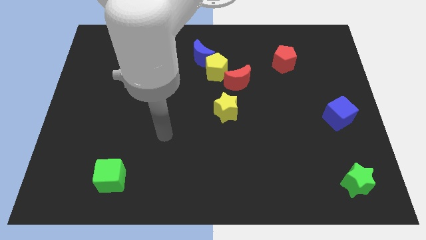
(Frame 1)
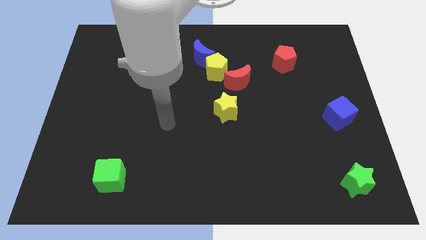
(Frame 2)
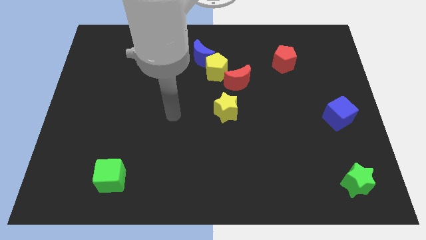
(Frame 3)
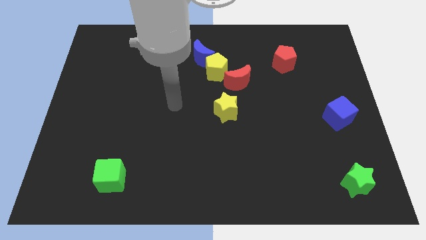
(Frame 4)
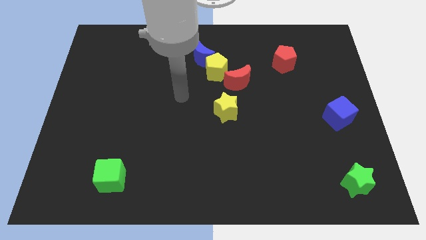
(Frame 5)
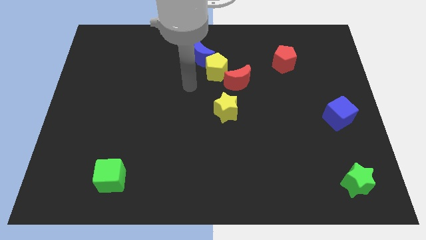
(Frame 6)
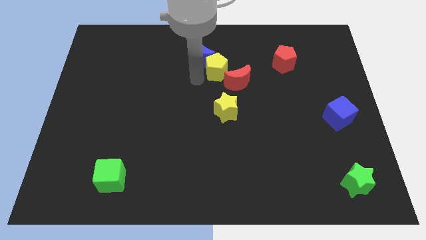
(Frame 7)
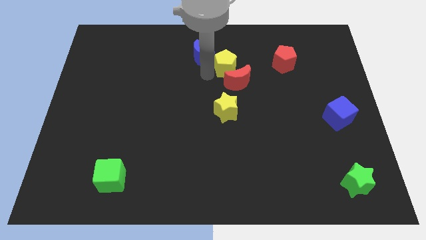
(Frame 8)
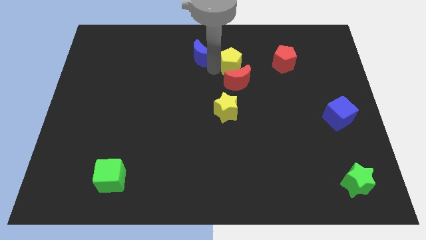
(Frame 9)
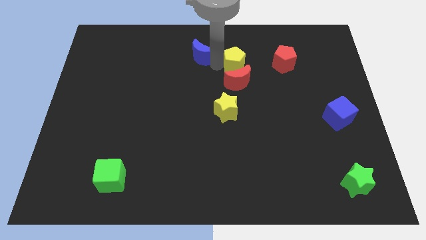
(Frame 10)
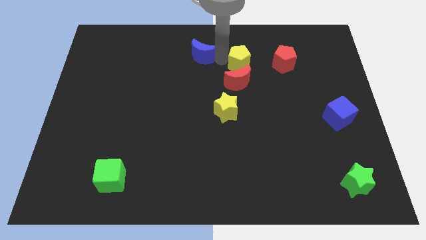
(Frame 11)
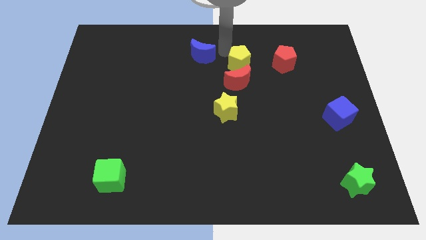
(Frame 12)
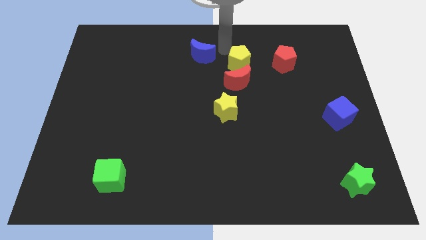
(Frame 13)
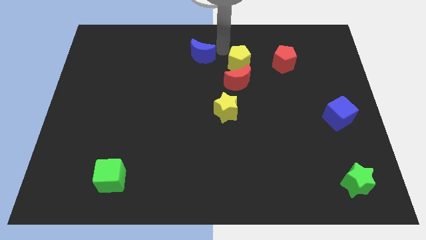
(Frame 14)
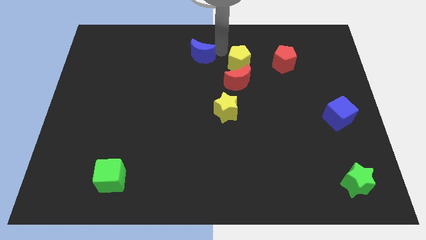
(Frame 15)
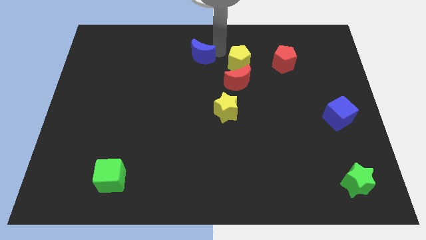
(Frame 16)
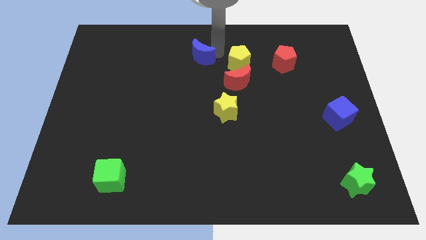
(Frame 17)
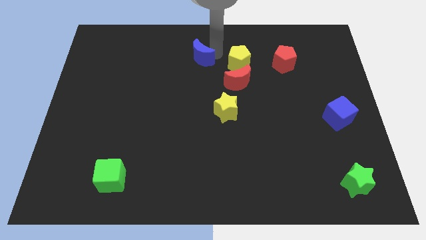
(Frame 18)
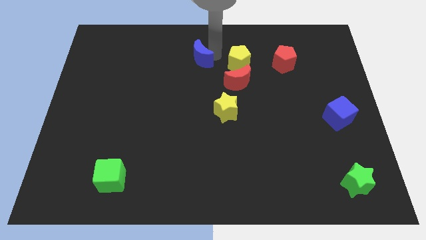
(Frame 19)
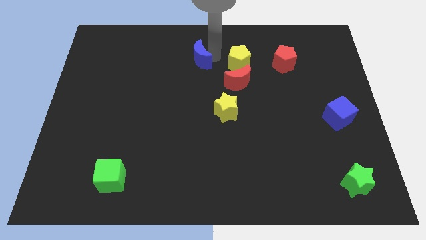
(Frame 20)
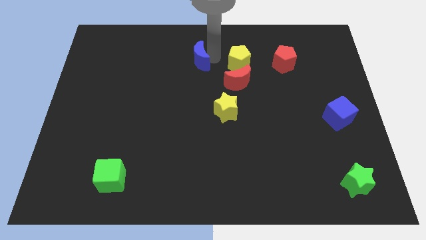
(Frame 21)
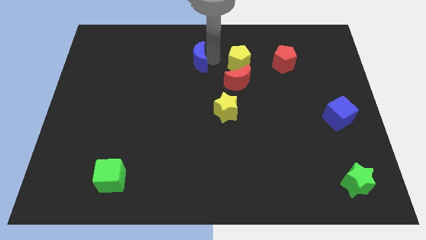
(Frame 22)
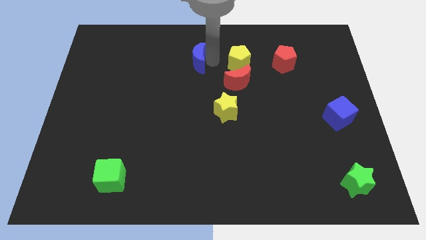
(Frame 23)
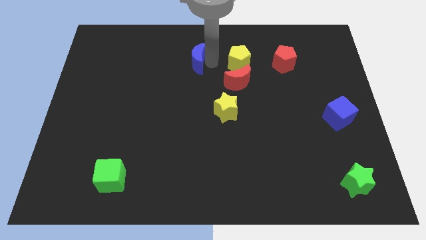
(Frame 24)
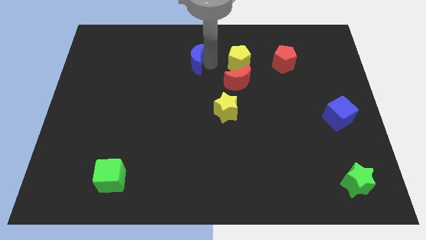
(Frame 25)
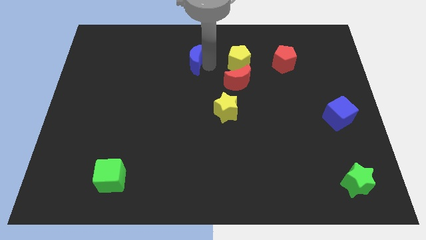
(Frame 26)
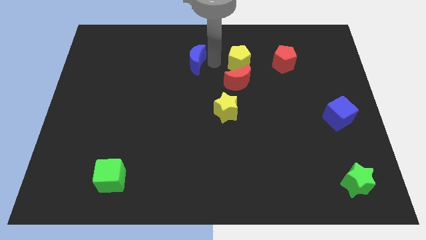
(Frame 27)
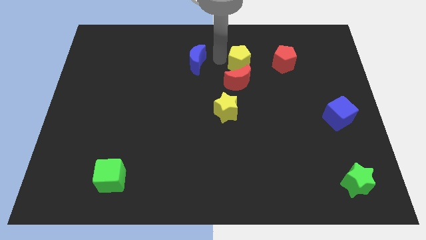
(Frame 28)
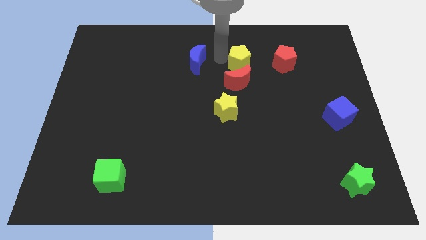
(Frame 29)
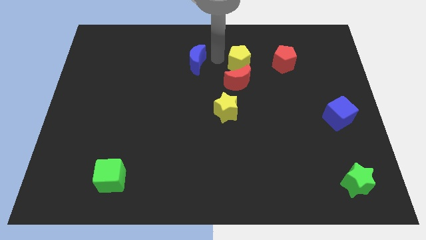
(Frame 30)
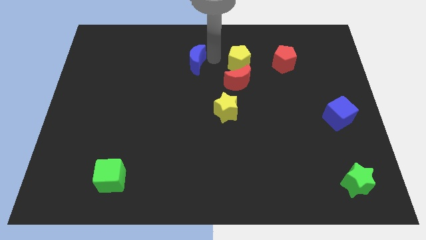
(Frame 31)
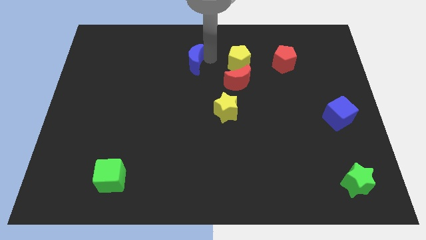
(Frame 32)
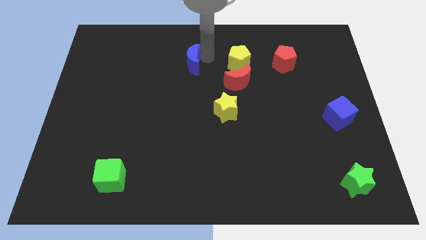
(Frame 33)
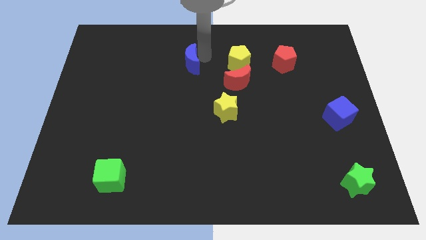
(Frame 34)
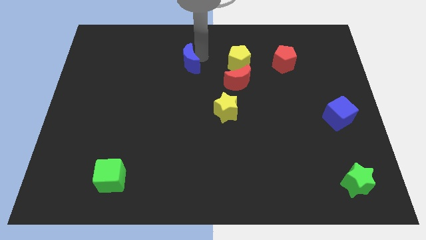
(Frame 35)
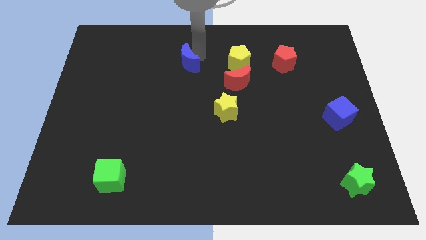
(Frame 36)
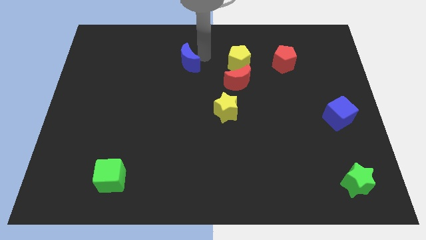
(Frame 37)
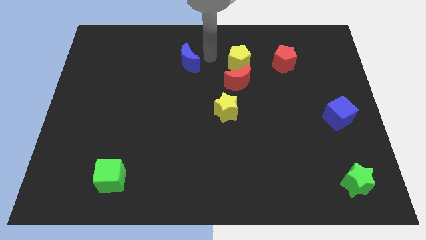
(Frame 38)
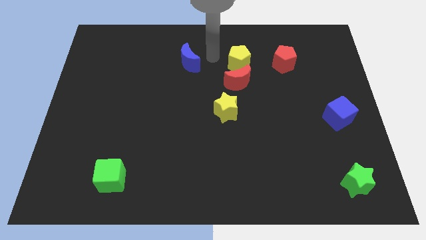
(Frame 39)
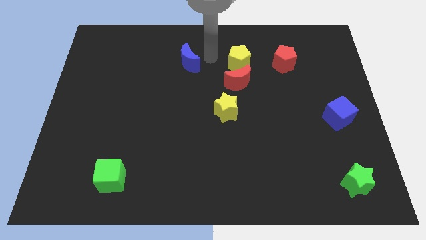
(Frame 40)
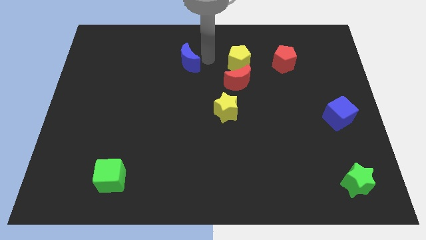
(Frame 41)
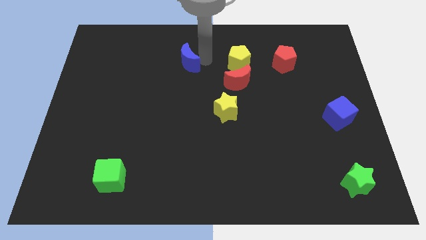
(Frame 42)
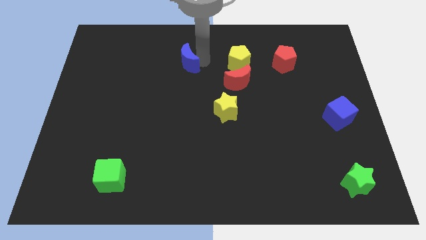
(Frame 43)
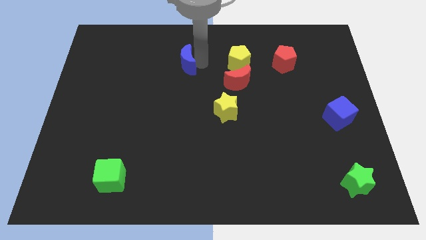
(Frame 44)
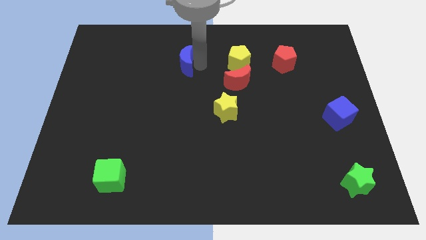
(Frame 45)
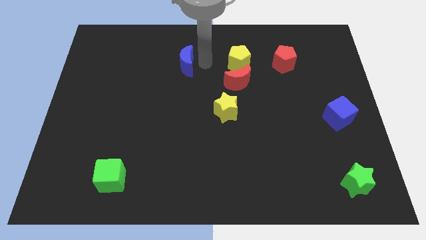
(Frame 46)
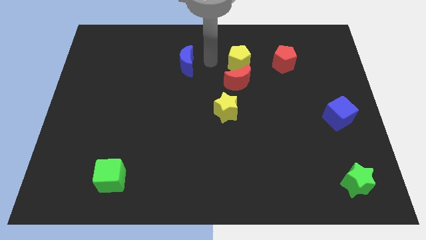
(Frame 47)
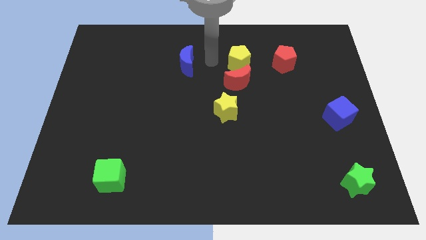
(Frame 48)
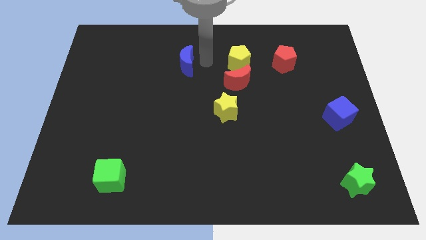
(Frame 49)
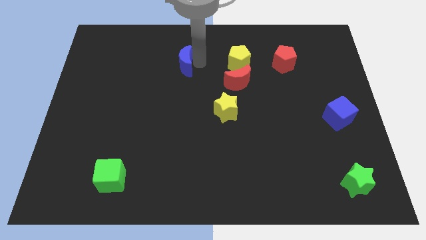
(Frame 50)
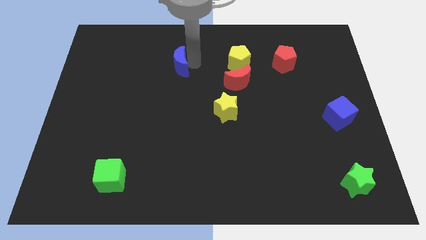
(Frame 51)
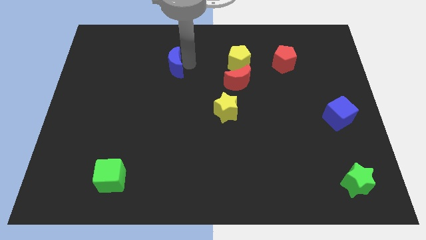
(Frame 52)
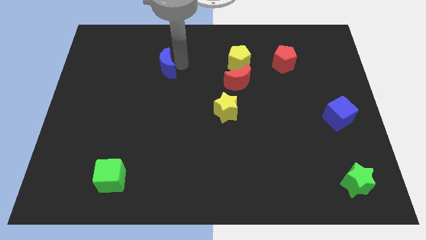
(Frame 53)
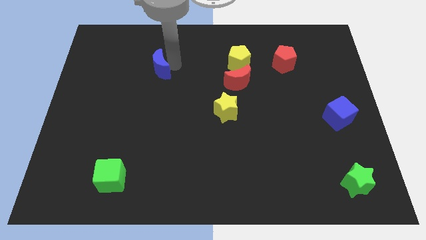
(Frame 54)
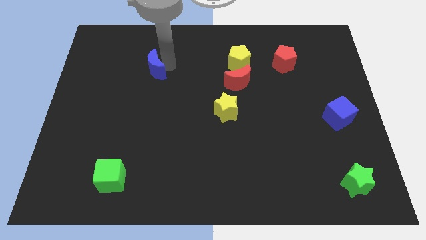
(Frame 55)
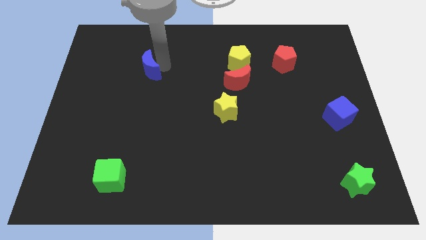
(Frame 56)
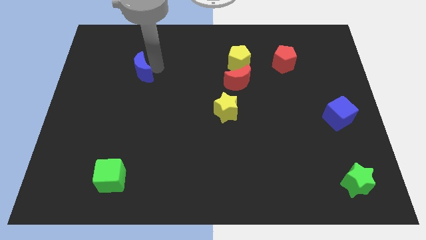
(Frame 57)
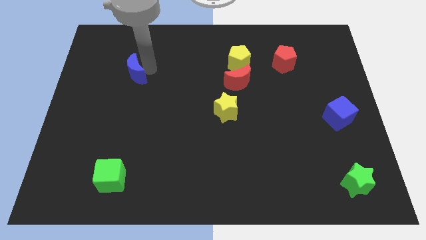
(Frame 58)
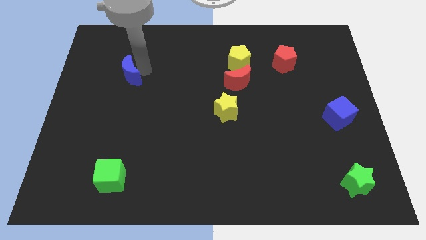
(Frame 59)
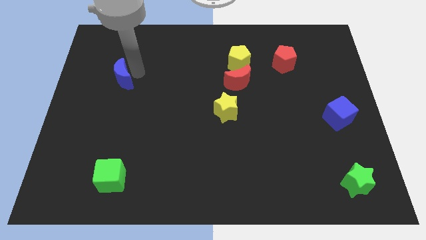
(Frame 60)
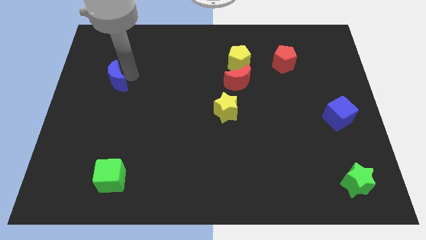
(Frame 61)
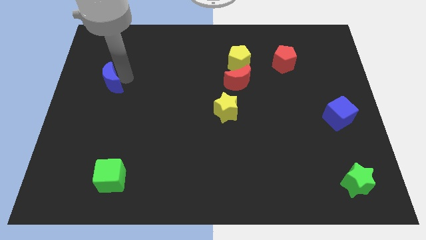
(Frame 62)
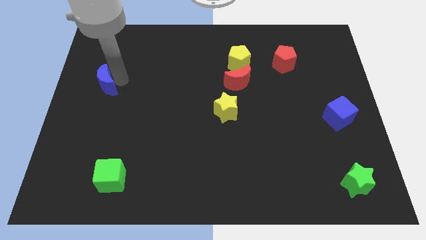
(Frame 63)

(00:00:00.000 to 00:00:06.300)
move the blue moon to the left side of the board
